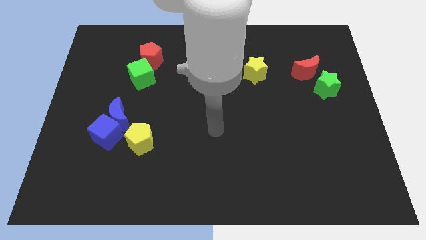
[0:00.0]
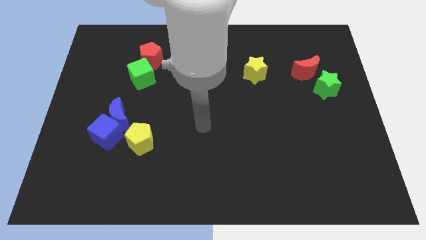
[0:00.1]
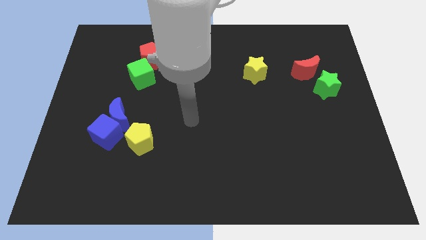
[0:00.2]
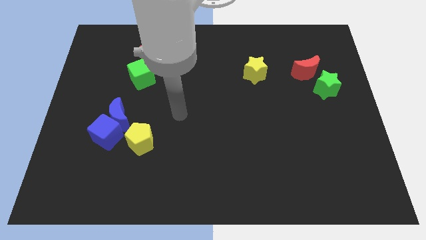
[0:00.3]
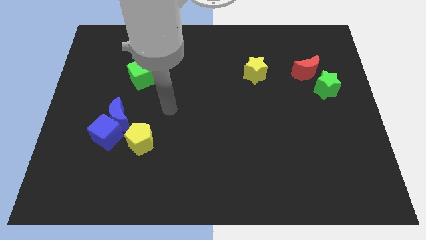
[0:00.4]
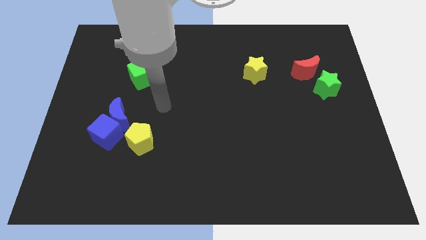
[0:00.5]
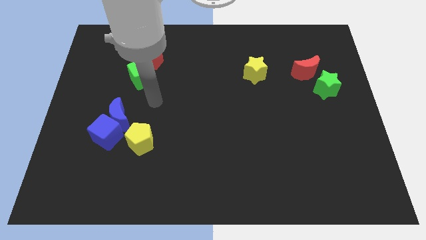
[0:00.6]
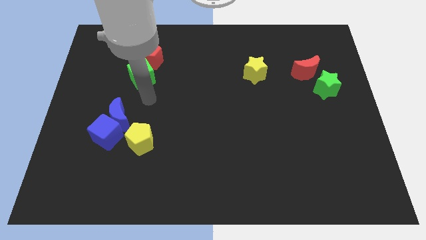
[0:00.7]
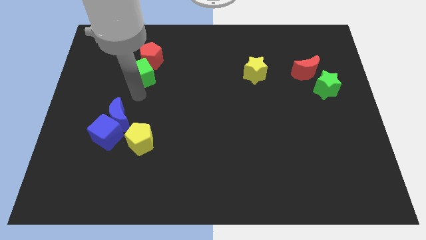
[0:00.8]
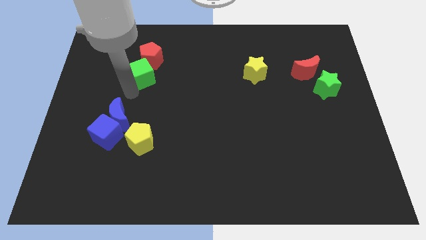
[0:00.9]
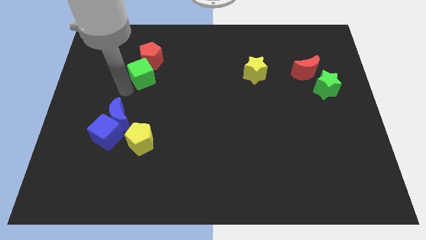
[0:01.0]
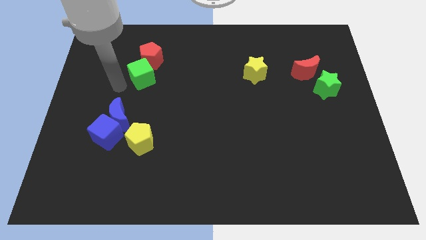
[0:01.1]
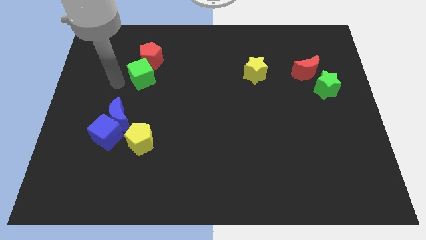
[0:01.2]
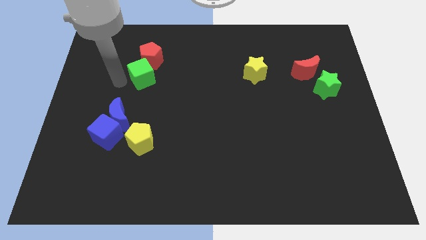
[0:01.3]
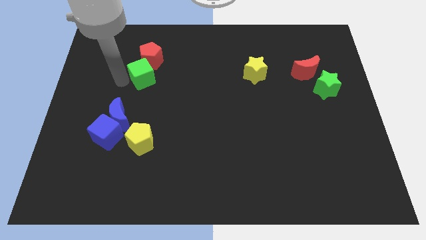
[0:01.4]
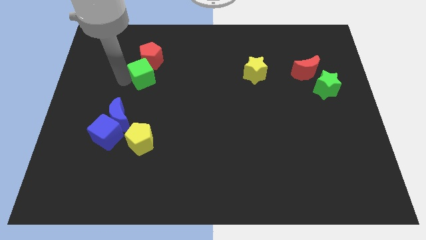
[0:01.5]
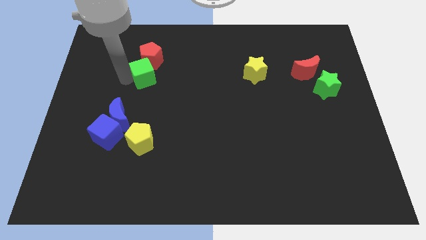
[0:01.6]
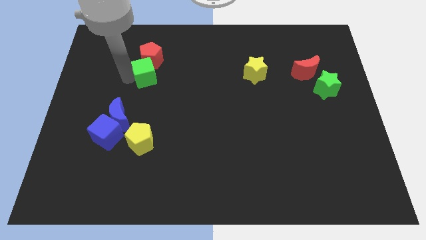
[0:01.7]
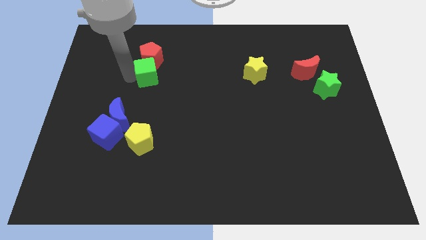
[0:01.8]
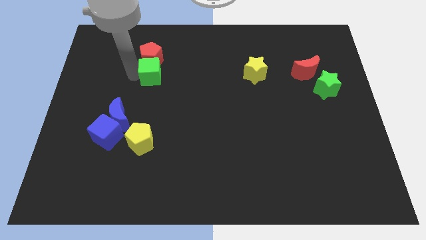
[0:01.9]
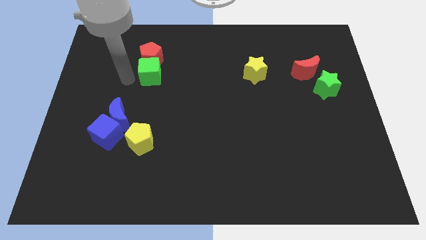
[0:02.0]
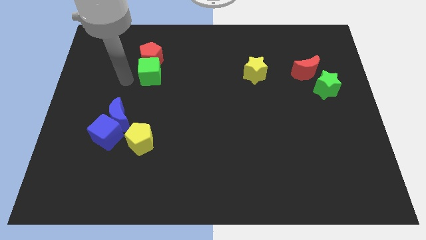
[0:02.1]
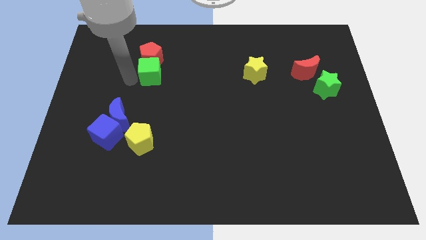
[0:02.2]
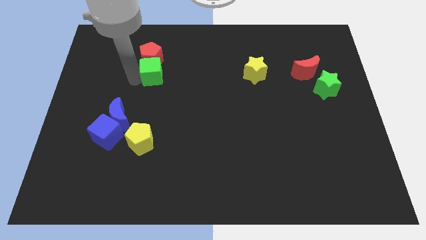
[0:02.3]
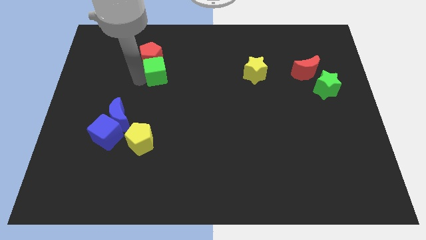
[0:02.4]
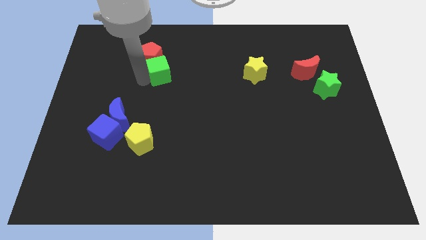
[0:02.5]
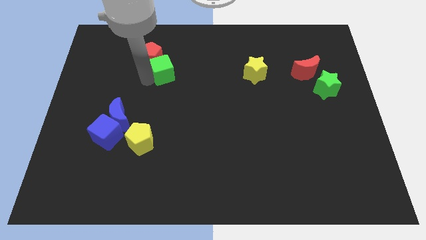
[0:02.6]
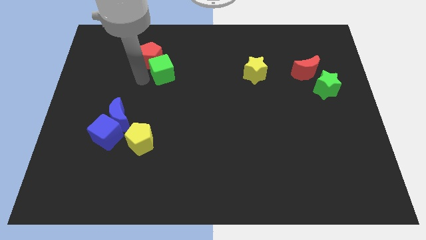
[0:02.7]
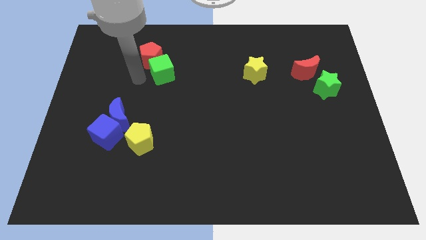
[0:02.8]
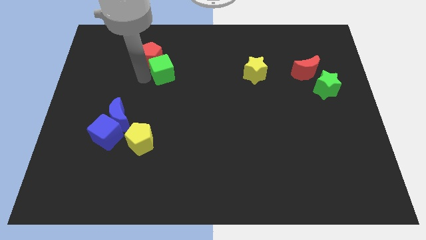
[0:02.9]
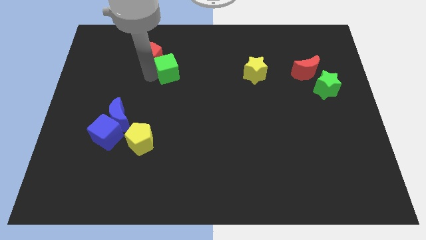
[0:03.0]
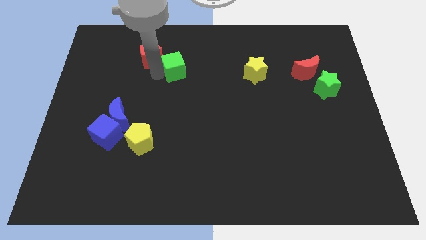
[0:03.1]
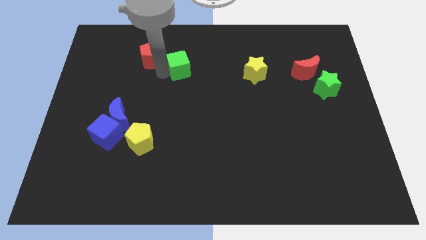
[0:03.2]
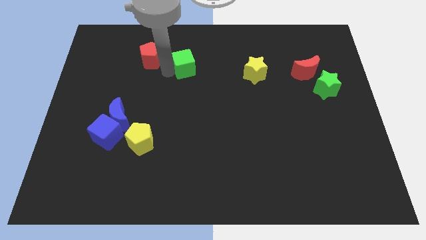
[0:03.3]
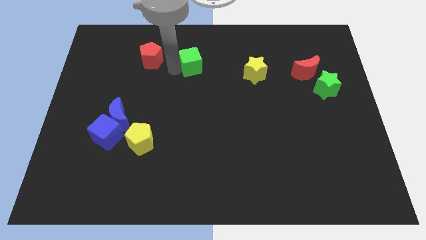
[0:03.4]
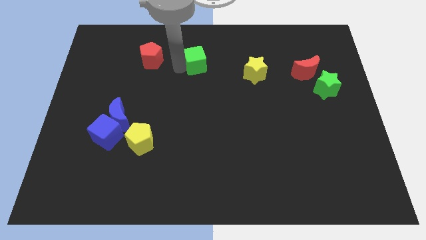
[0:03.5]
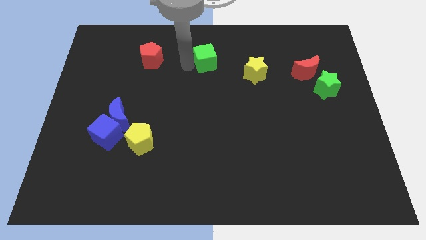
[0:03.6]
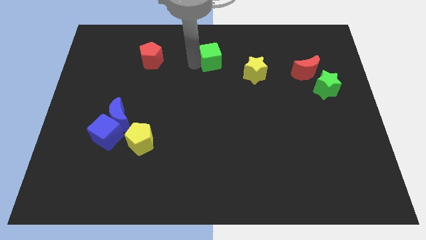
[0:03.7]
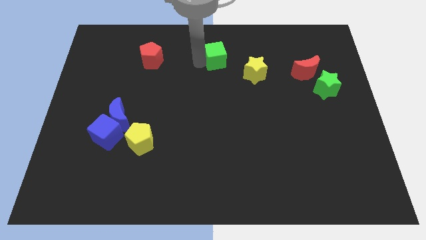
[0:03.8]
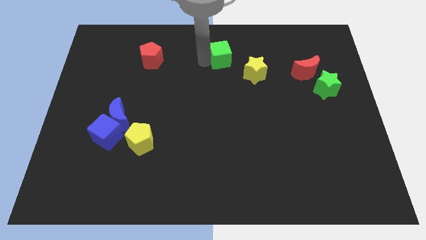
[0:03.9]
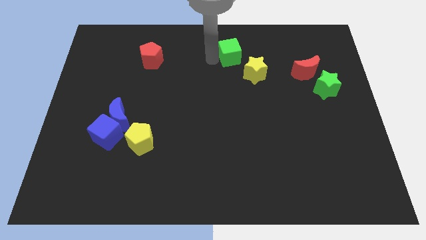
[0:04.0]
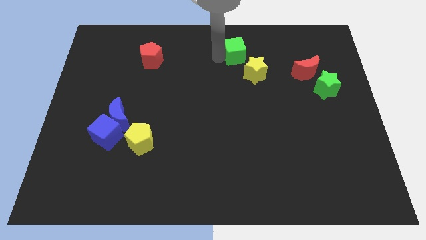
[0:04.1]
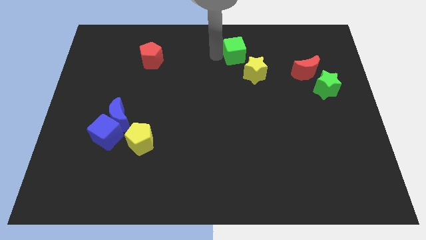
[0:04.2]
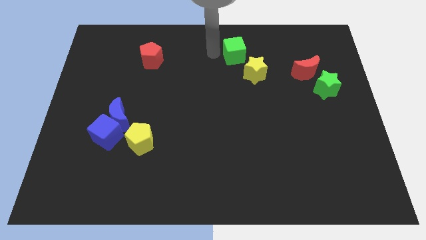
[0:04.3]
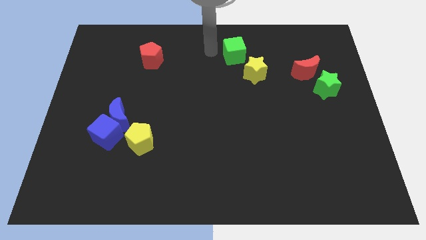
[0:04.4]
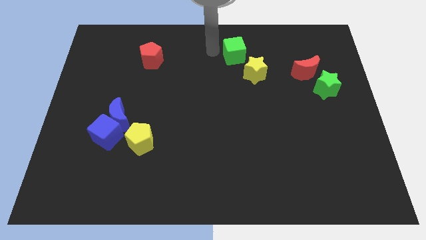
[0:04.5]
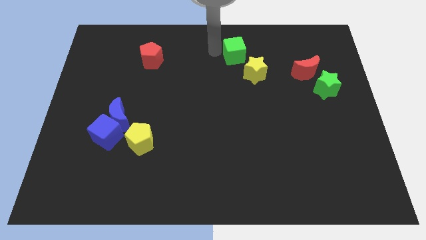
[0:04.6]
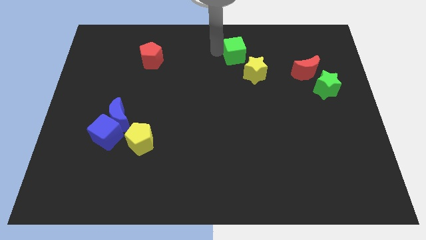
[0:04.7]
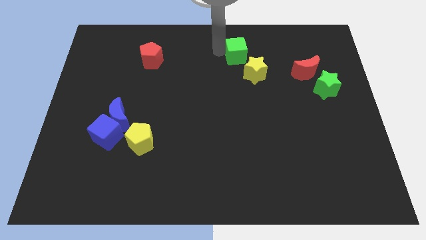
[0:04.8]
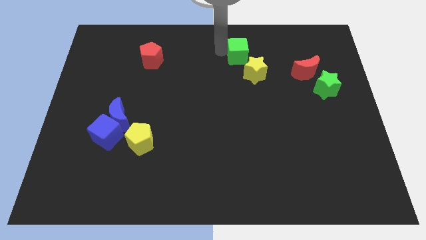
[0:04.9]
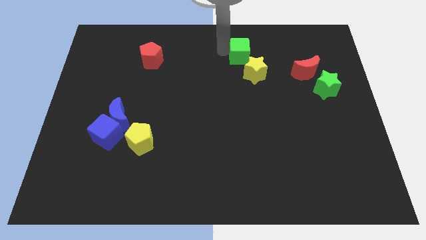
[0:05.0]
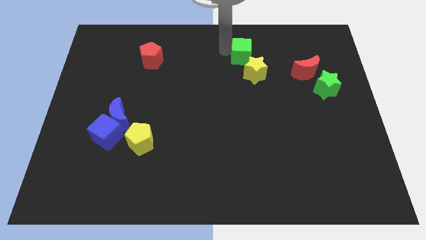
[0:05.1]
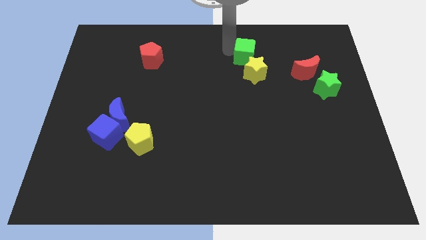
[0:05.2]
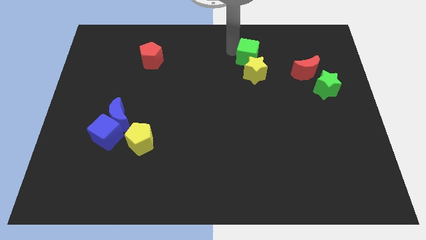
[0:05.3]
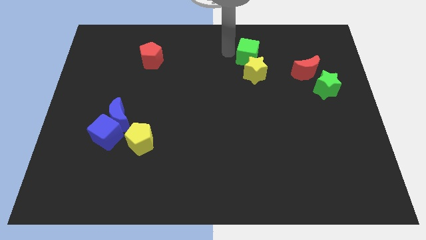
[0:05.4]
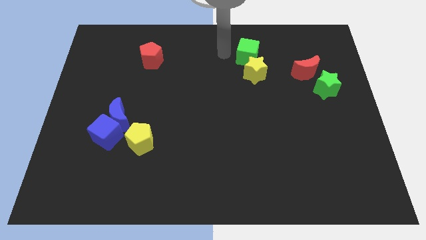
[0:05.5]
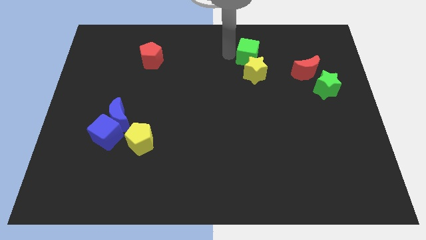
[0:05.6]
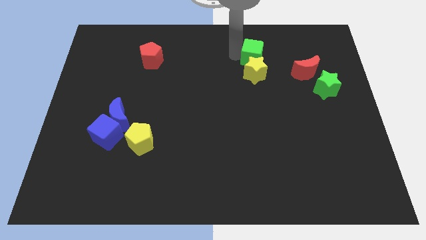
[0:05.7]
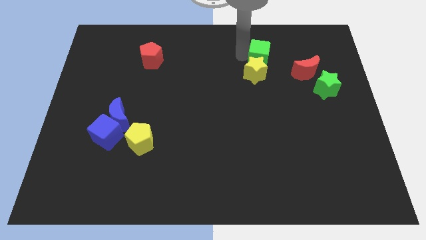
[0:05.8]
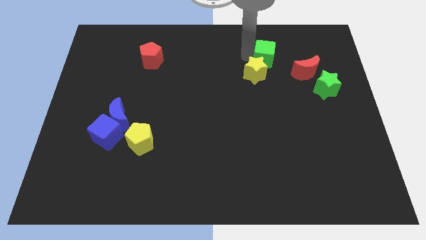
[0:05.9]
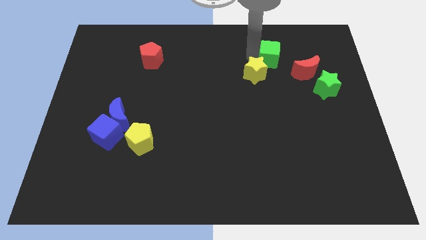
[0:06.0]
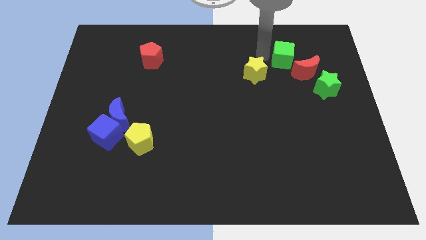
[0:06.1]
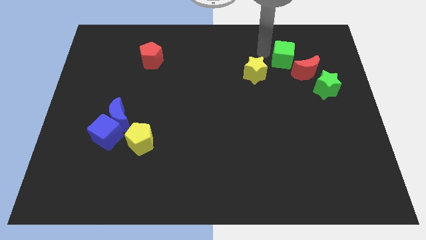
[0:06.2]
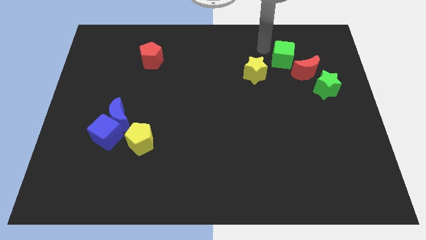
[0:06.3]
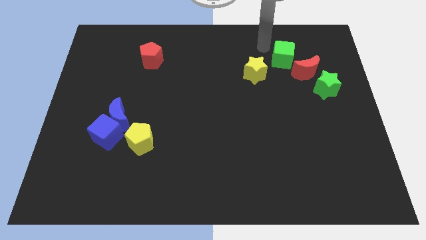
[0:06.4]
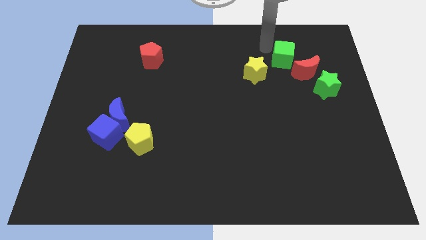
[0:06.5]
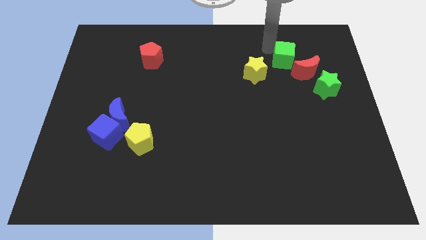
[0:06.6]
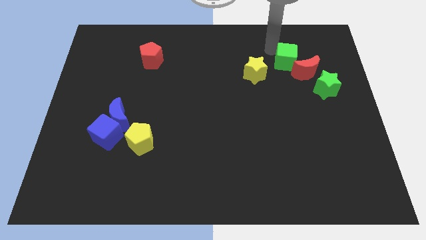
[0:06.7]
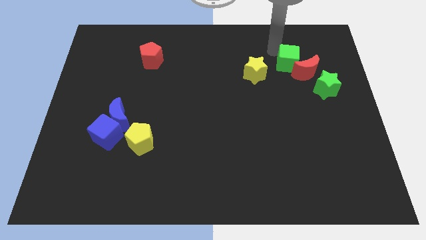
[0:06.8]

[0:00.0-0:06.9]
push the green cube close to the red moon

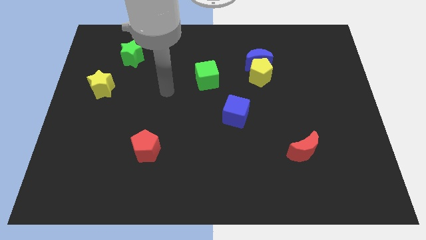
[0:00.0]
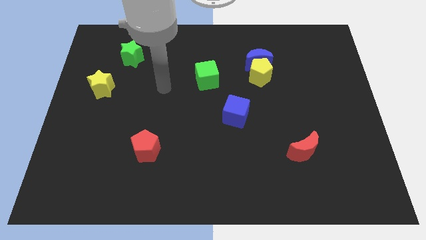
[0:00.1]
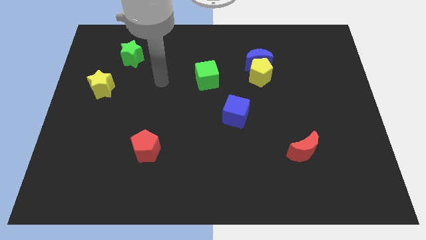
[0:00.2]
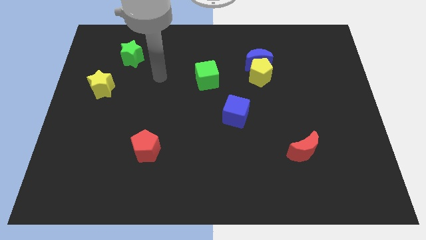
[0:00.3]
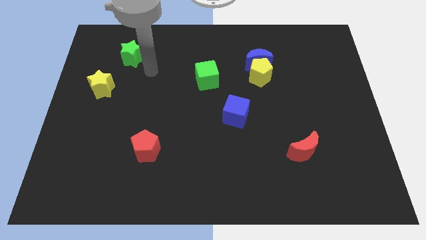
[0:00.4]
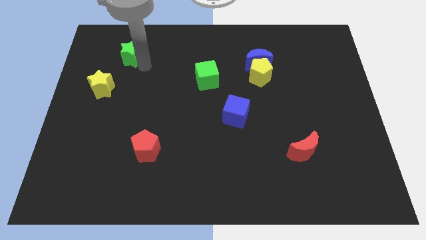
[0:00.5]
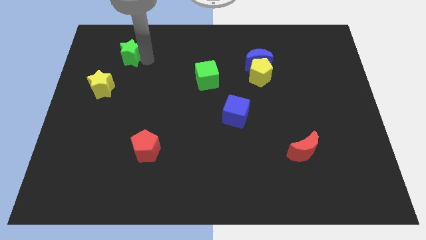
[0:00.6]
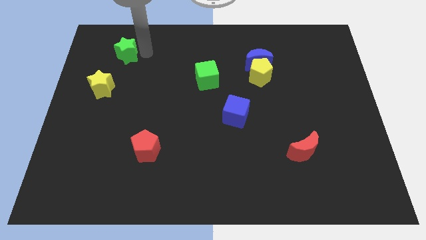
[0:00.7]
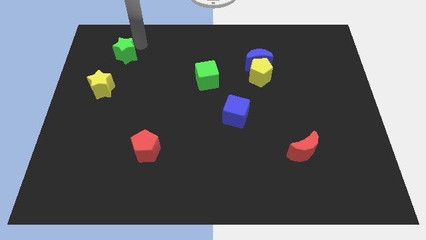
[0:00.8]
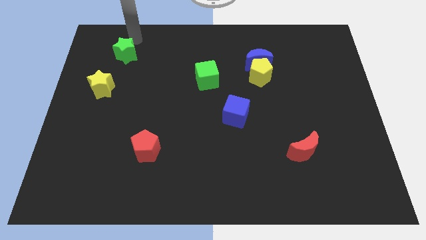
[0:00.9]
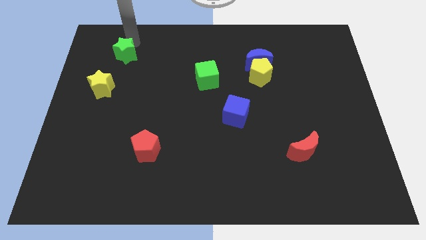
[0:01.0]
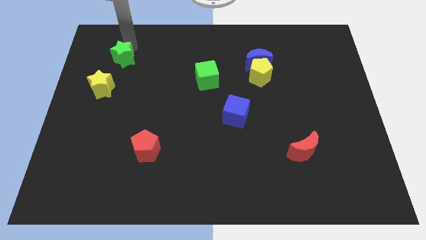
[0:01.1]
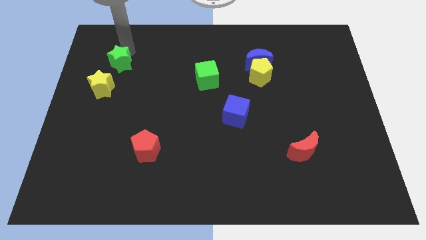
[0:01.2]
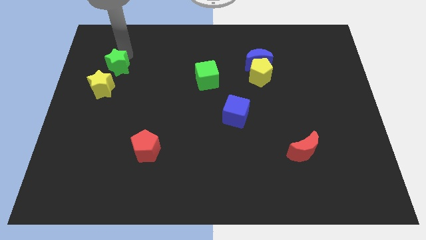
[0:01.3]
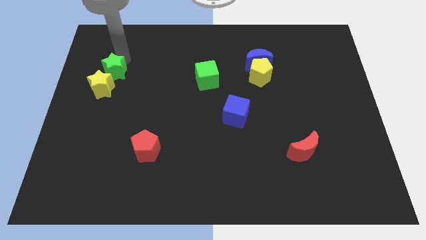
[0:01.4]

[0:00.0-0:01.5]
push the green star close to the yellow star
